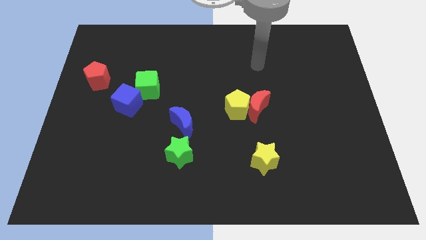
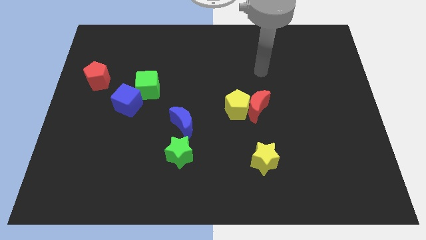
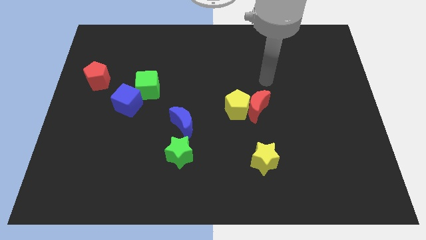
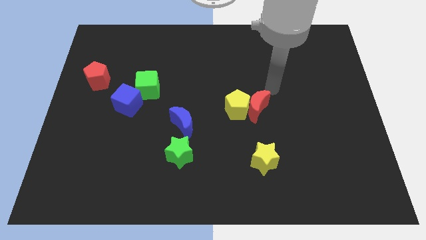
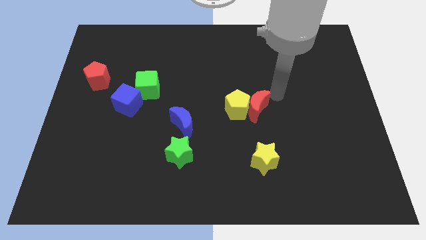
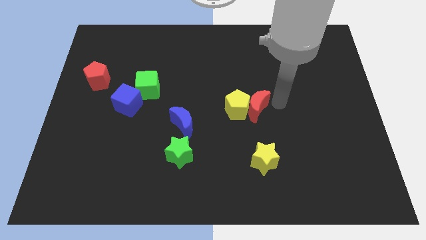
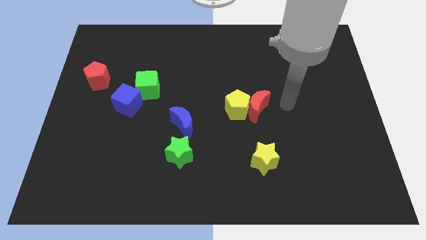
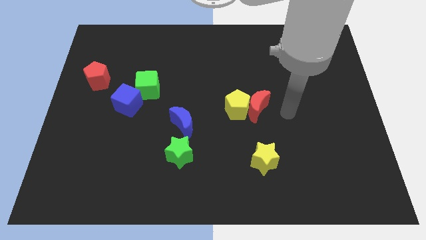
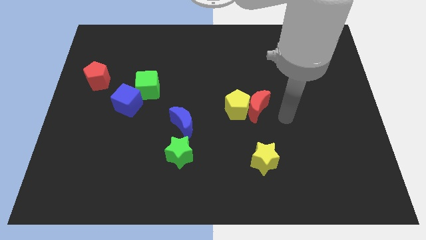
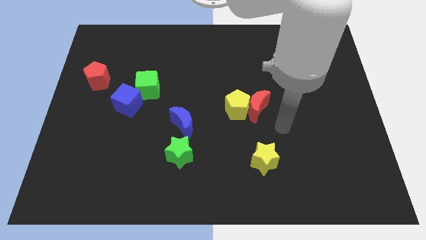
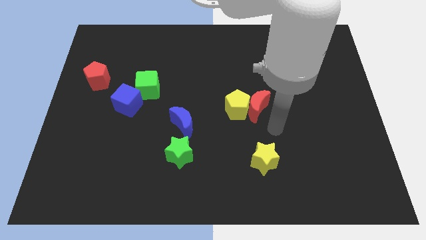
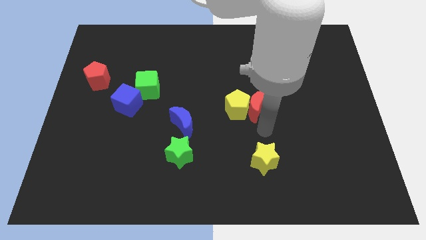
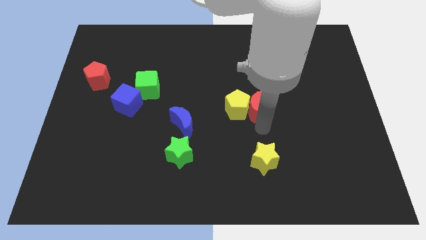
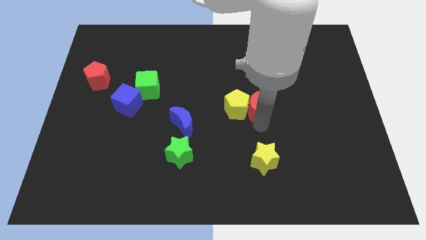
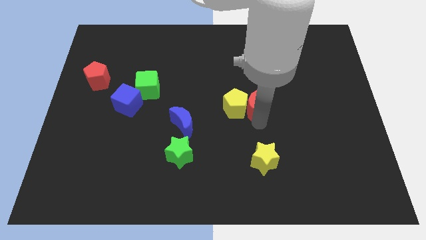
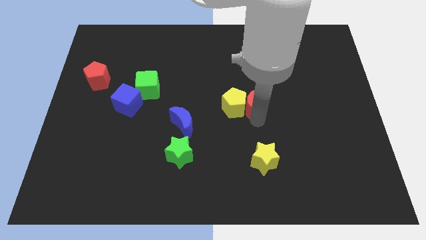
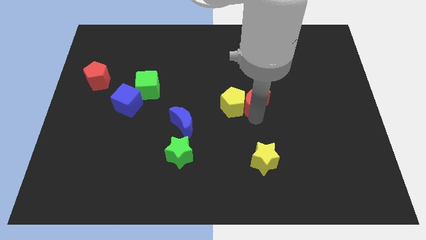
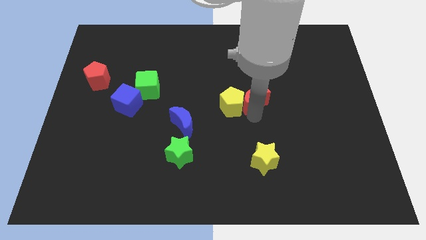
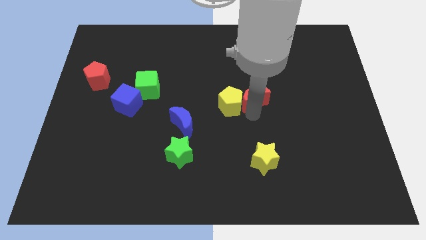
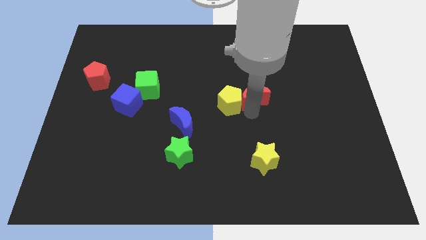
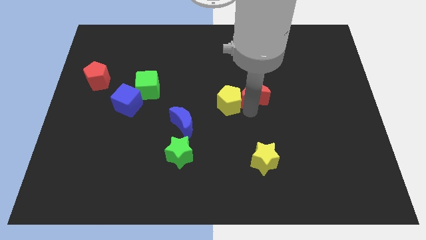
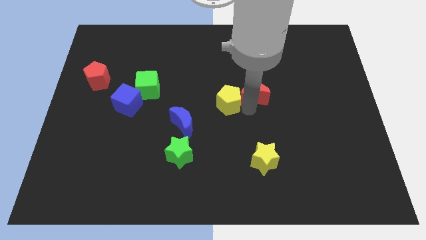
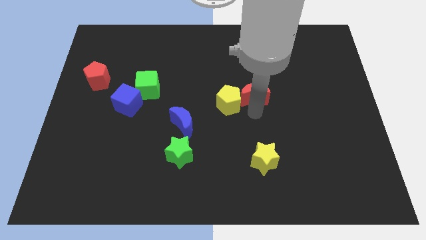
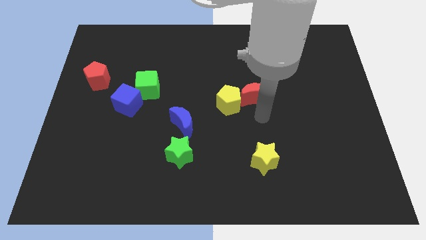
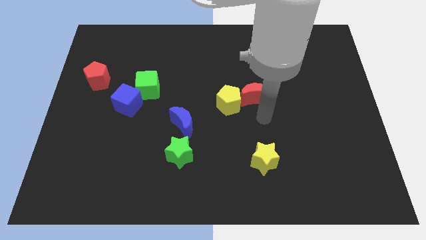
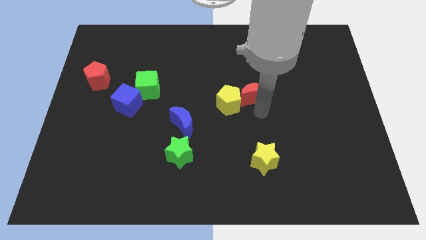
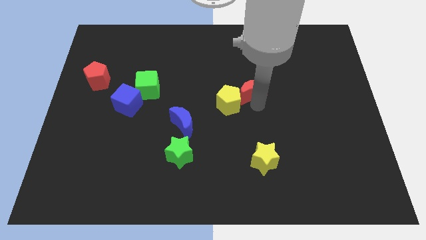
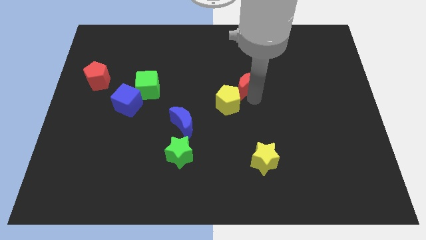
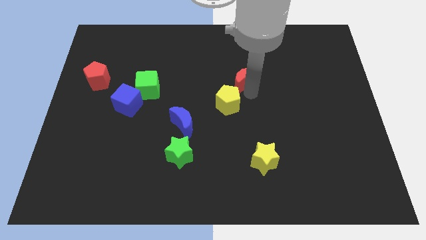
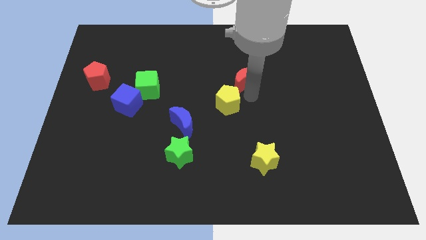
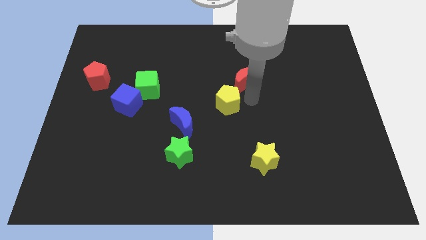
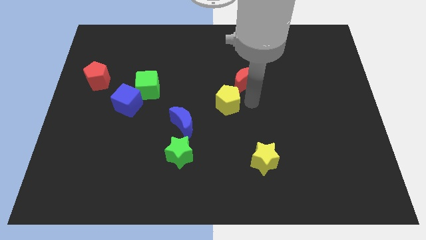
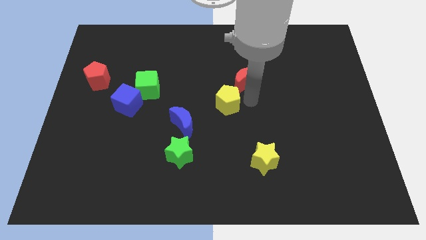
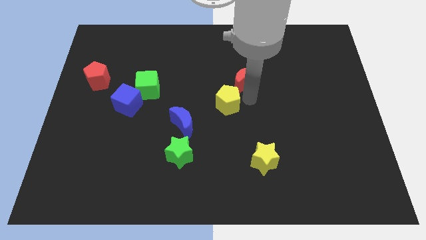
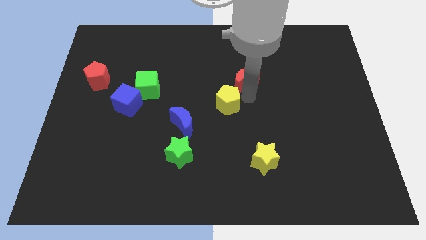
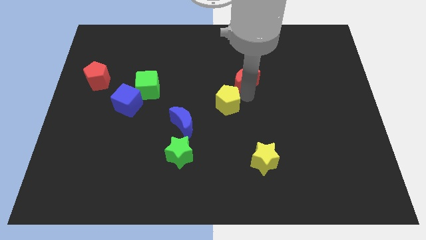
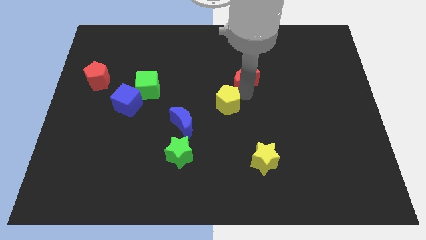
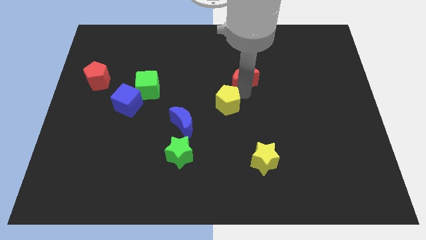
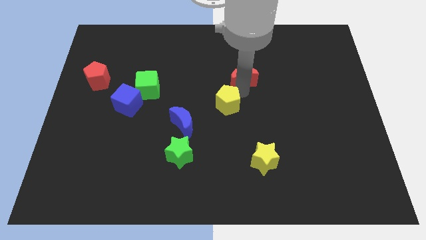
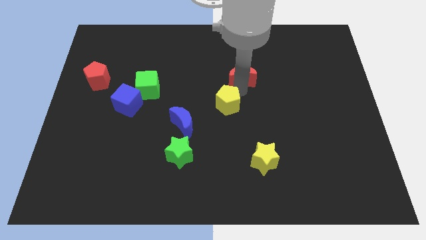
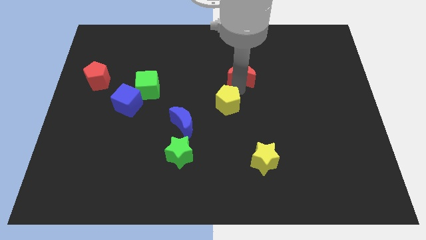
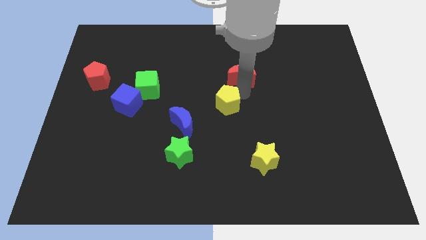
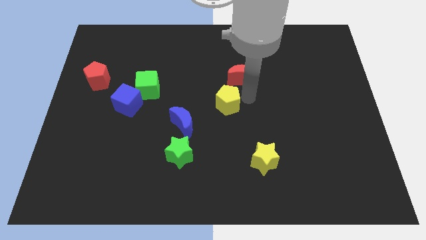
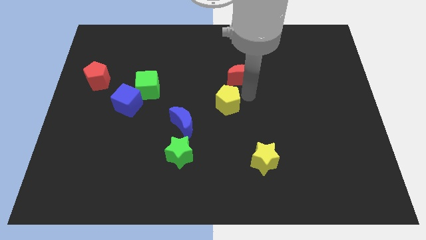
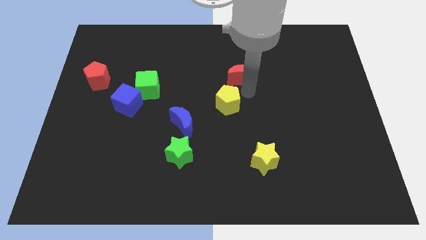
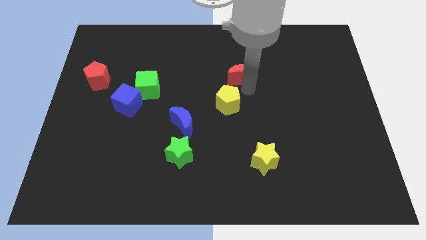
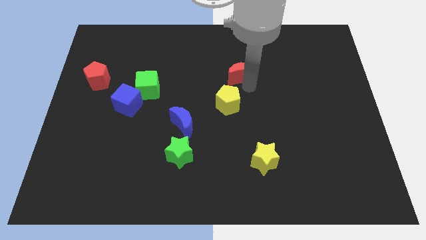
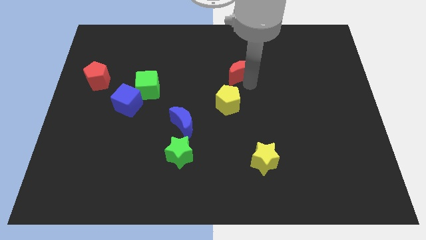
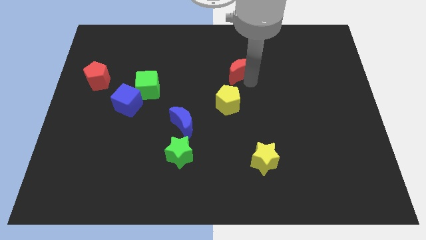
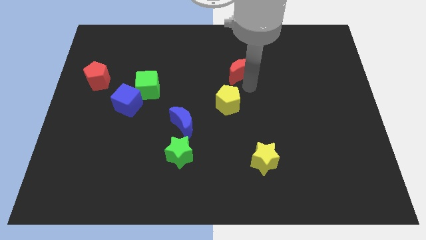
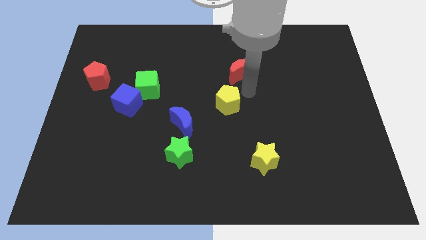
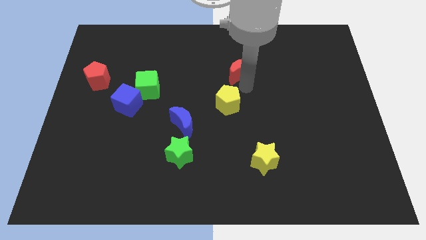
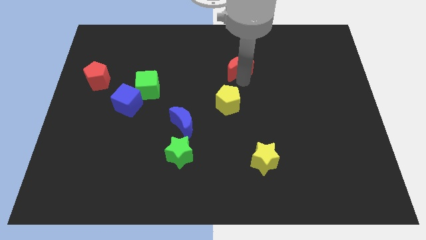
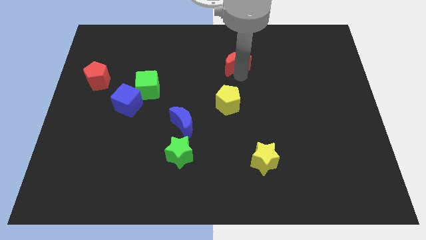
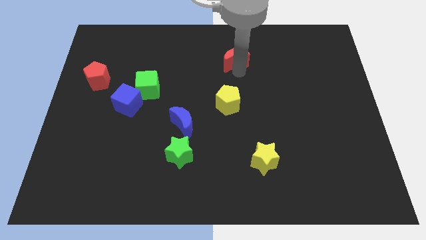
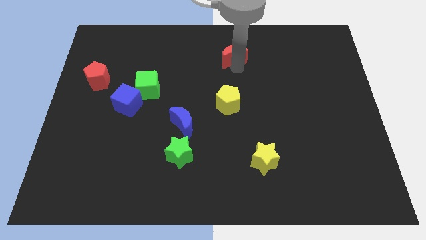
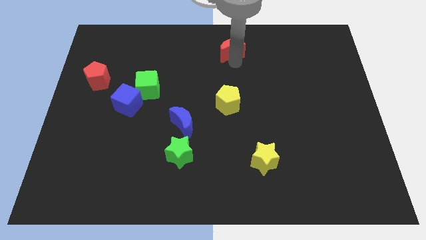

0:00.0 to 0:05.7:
slide the red moon to the top

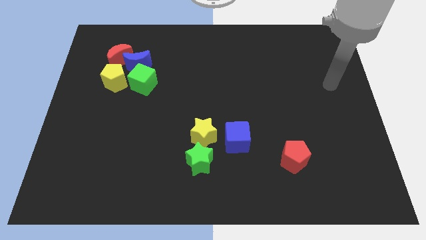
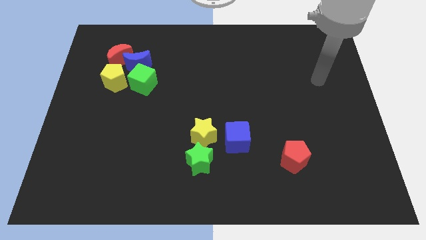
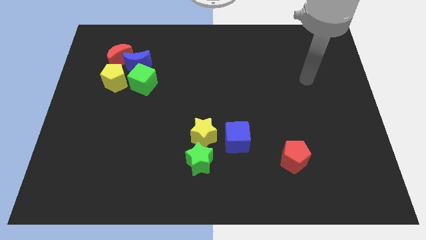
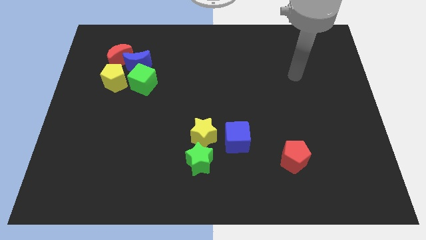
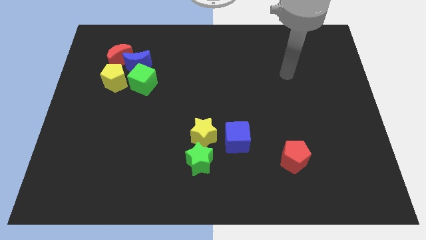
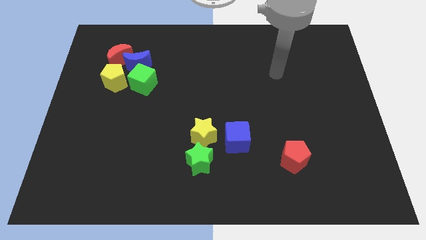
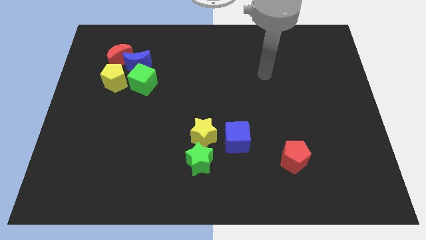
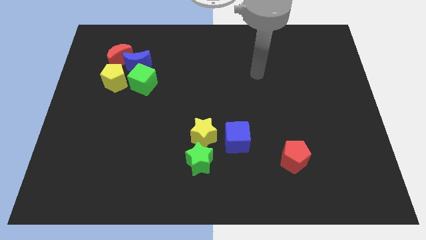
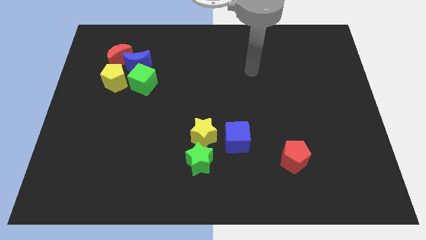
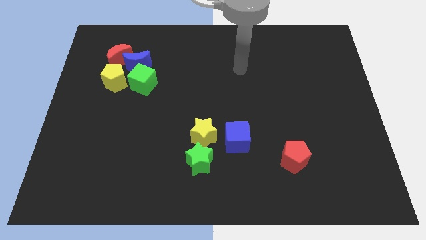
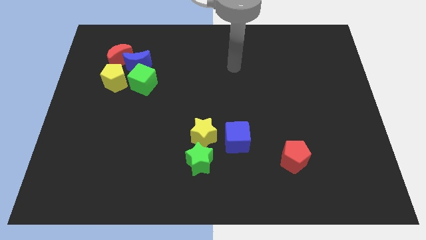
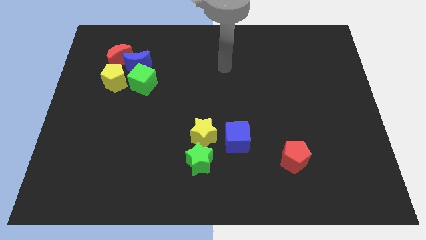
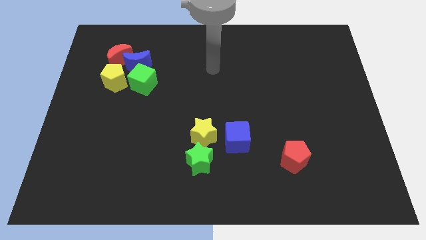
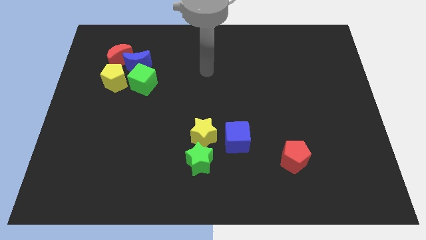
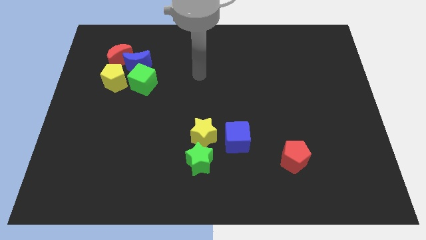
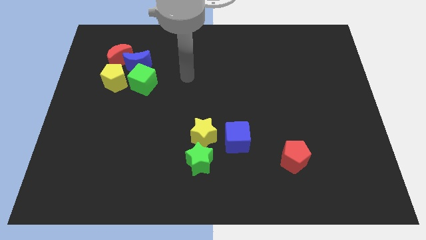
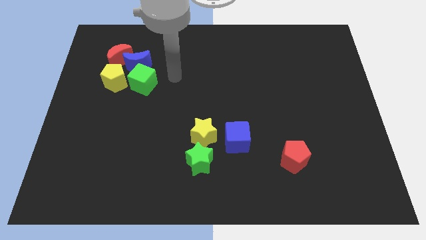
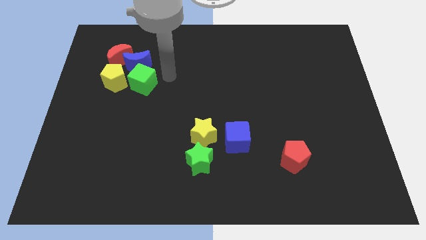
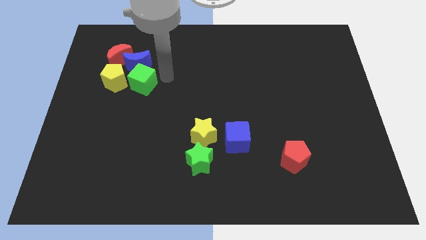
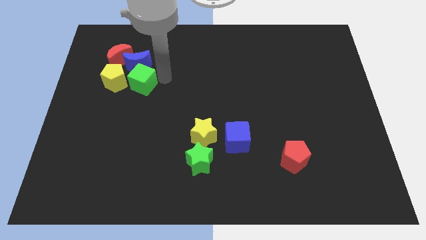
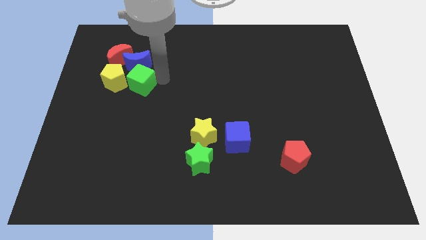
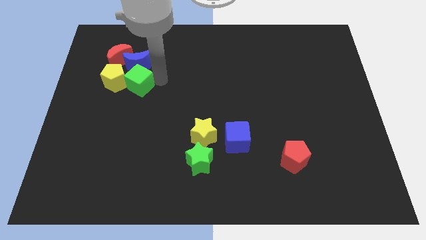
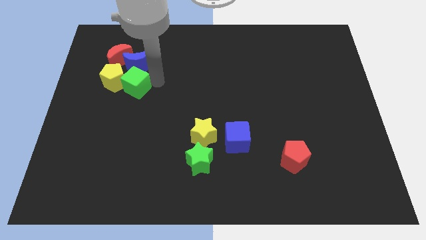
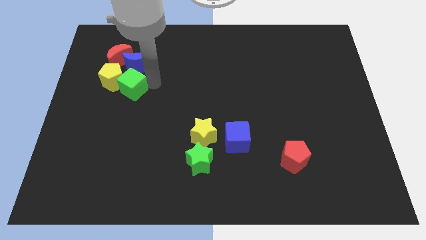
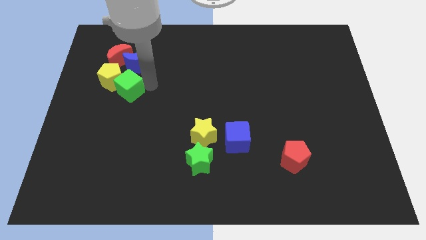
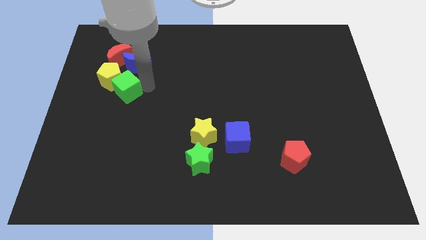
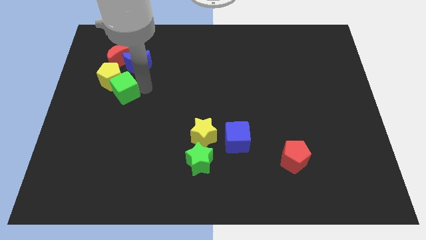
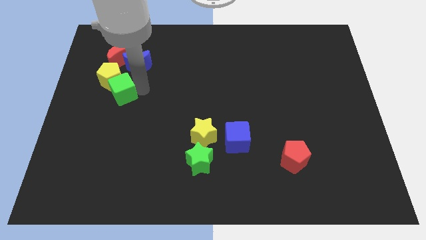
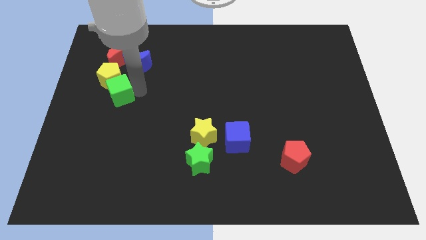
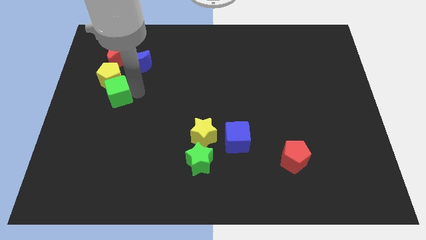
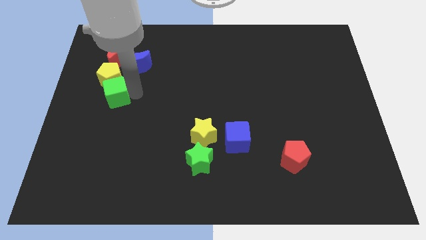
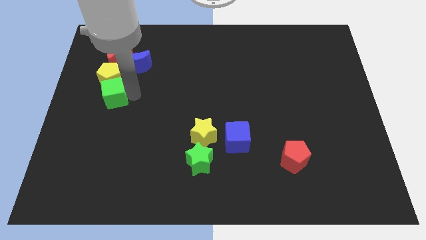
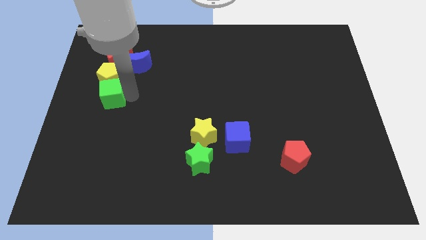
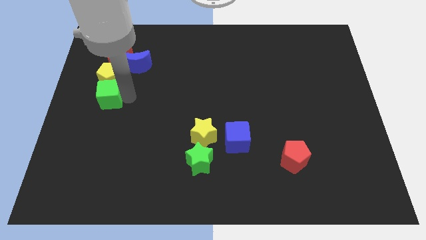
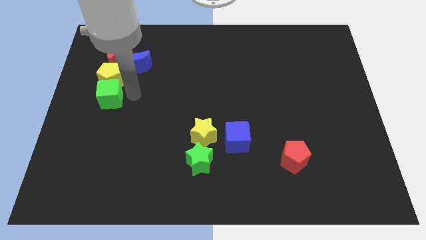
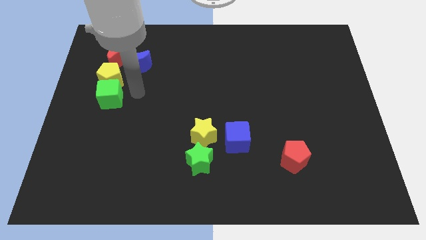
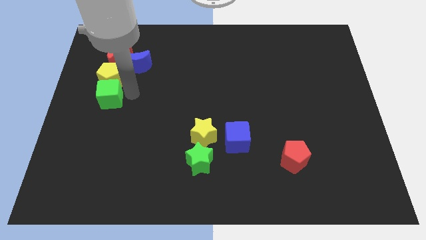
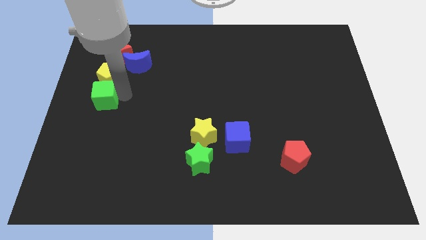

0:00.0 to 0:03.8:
move the green cube to the left side of the board
